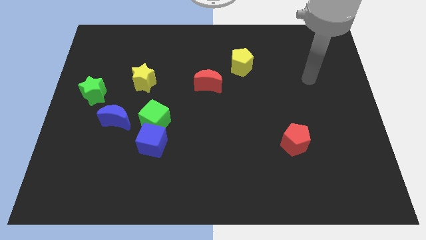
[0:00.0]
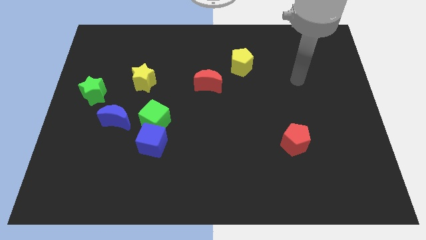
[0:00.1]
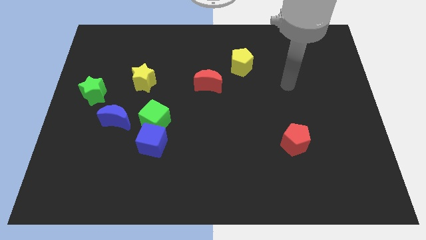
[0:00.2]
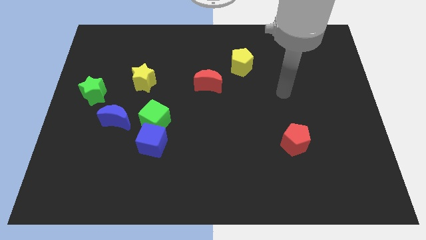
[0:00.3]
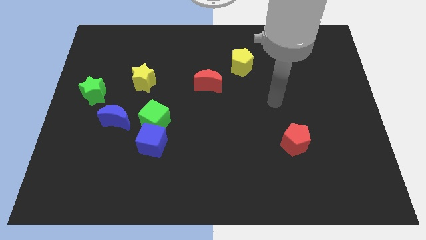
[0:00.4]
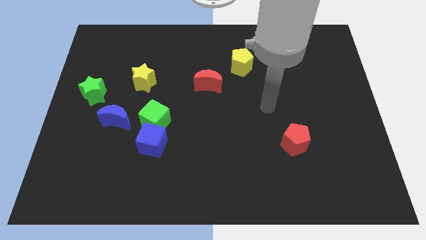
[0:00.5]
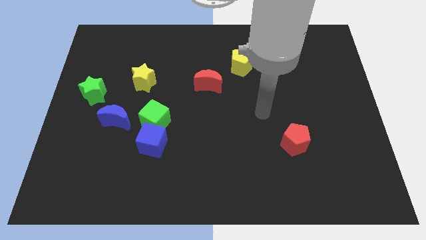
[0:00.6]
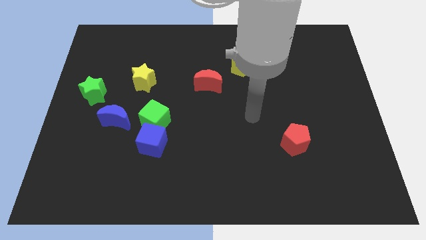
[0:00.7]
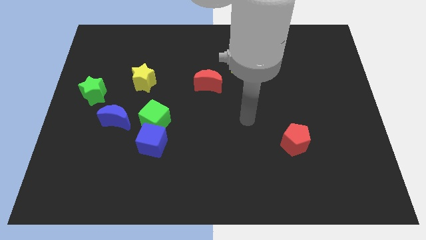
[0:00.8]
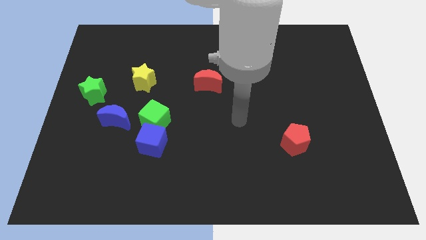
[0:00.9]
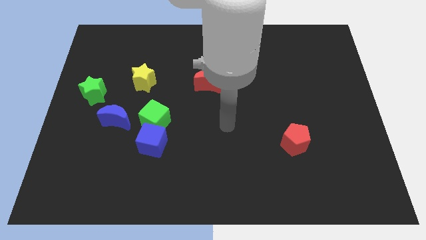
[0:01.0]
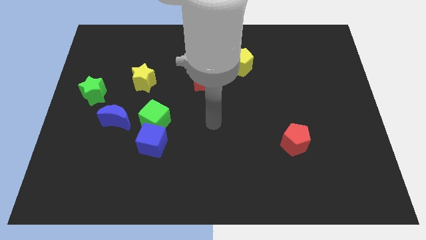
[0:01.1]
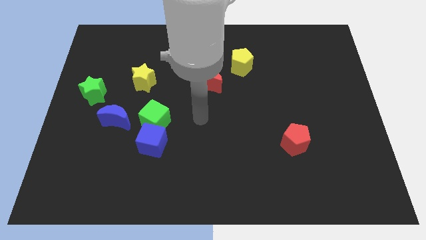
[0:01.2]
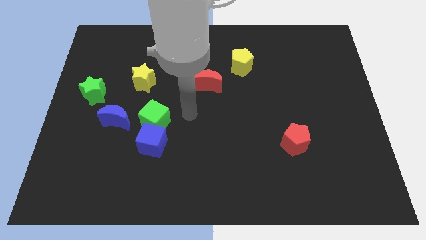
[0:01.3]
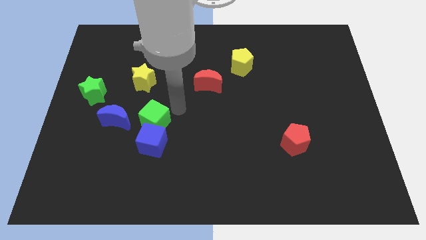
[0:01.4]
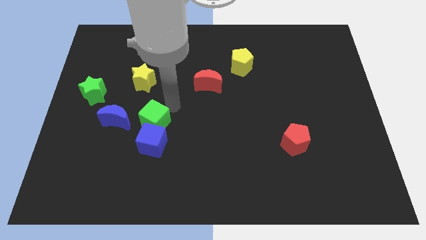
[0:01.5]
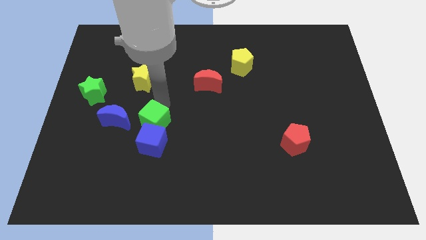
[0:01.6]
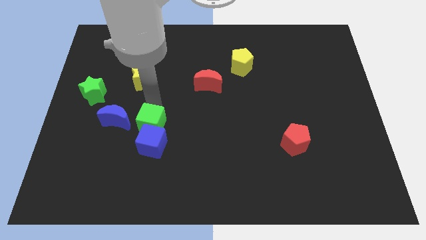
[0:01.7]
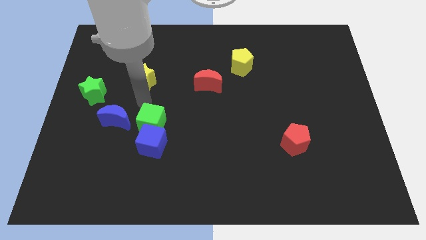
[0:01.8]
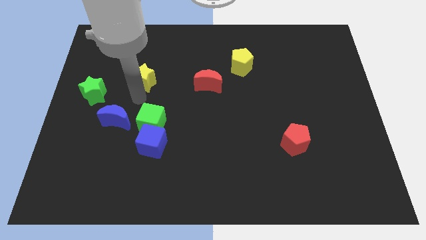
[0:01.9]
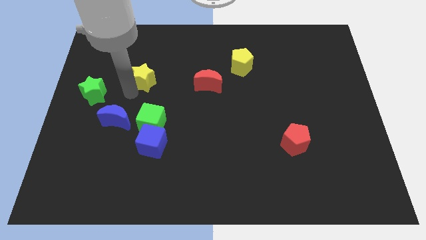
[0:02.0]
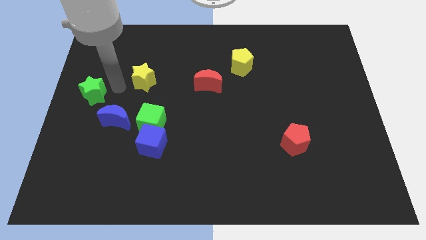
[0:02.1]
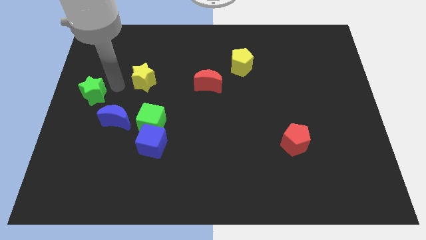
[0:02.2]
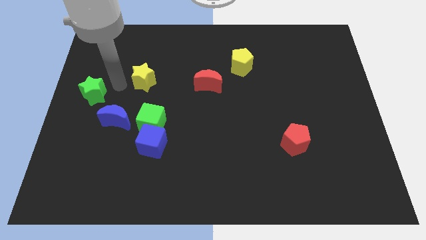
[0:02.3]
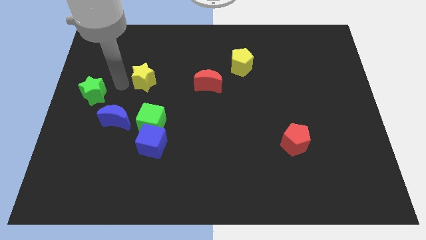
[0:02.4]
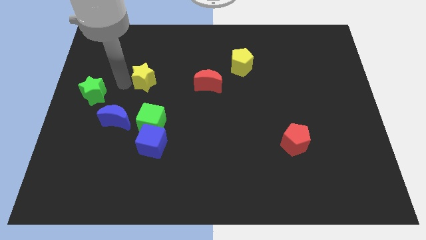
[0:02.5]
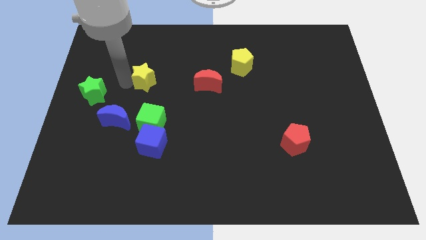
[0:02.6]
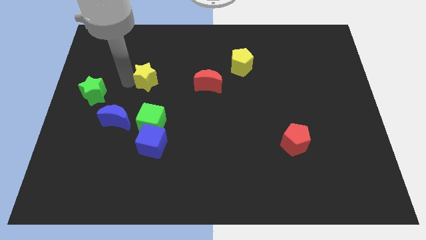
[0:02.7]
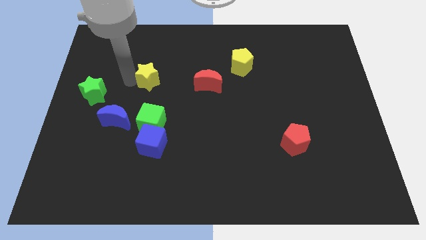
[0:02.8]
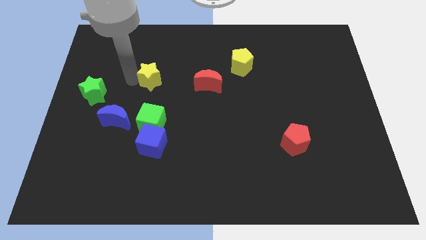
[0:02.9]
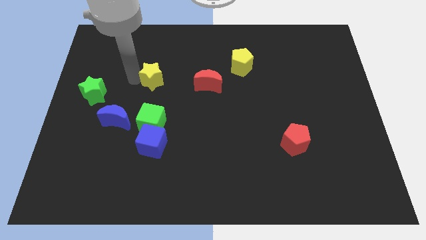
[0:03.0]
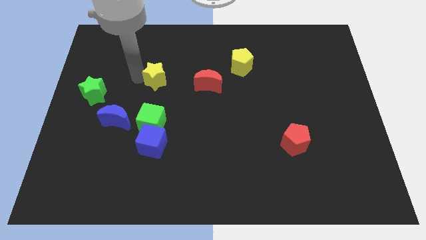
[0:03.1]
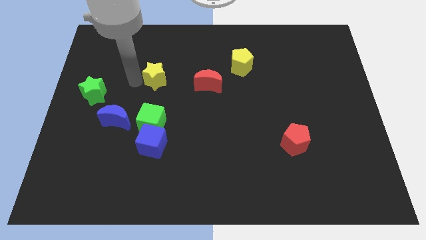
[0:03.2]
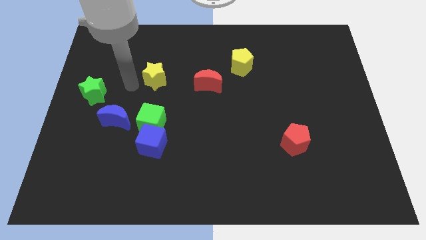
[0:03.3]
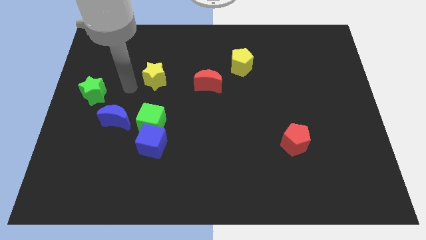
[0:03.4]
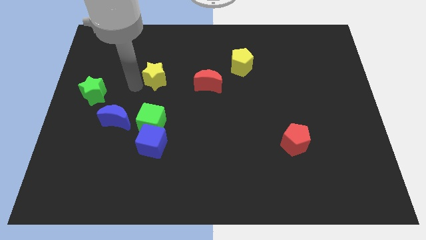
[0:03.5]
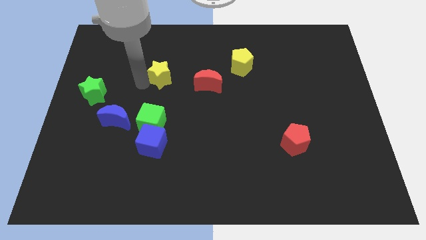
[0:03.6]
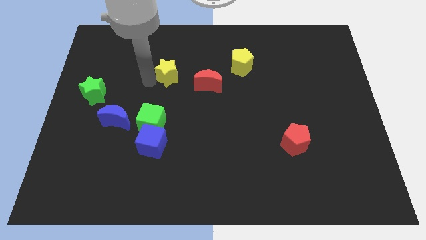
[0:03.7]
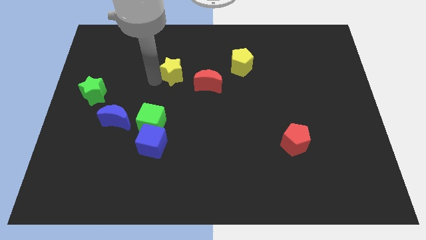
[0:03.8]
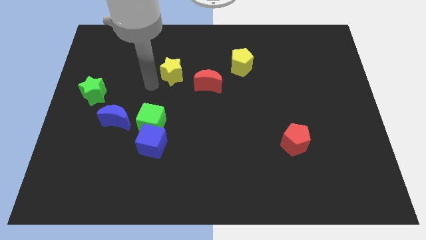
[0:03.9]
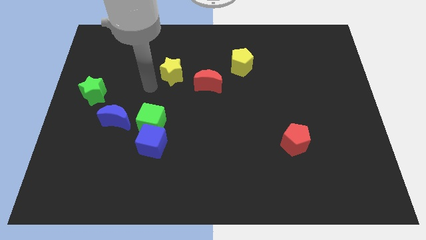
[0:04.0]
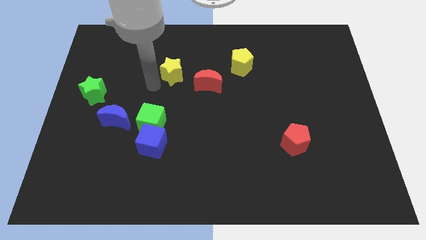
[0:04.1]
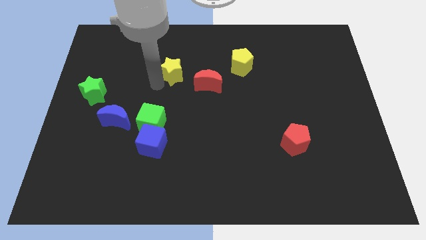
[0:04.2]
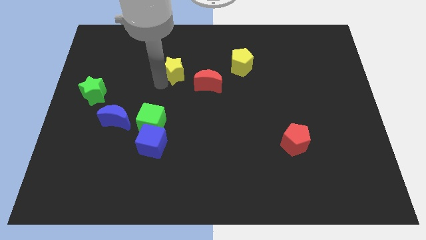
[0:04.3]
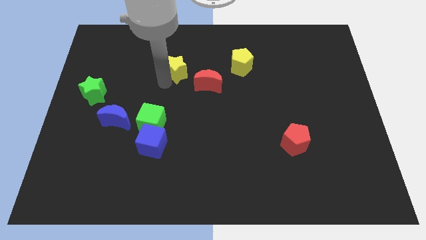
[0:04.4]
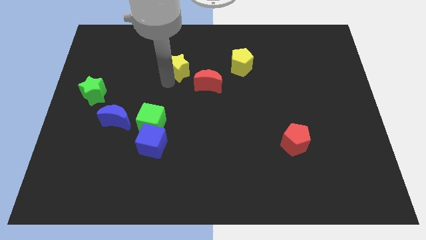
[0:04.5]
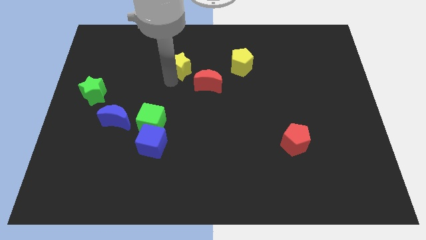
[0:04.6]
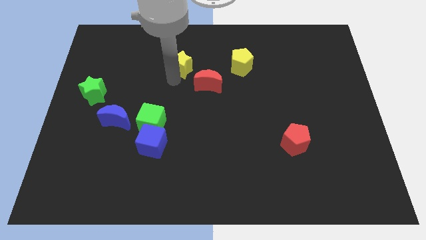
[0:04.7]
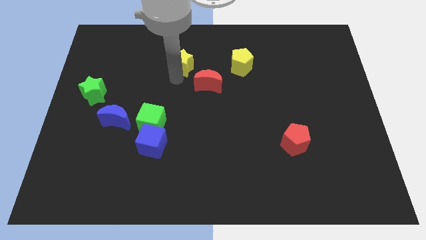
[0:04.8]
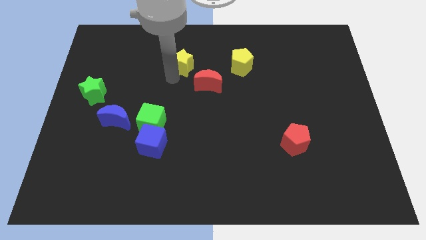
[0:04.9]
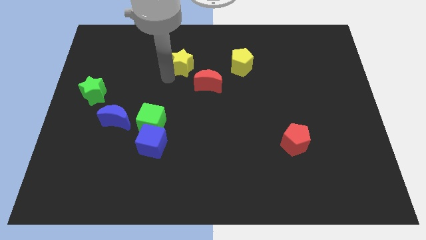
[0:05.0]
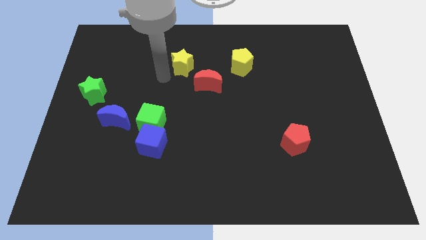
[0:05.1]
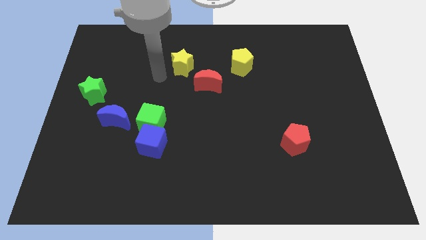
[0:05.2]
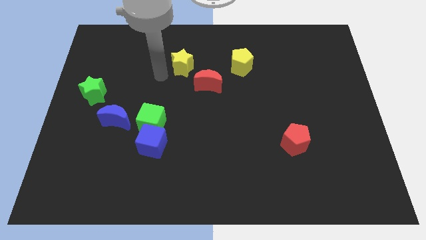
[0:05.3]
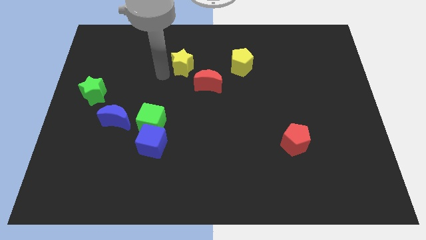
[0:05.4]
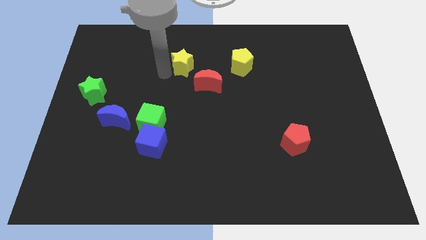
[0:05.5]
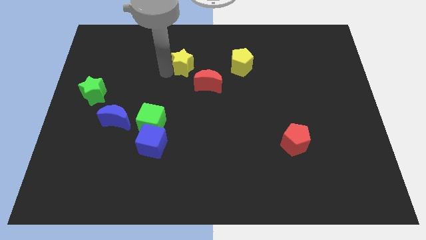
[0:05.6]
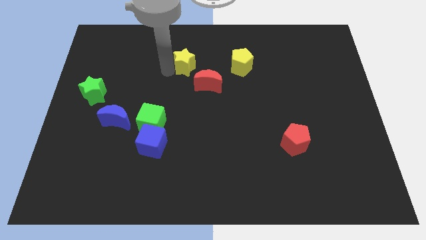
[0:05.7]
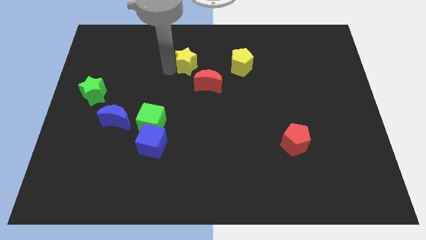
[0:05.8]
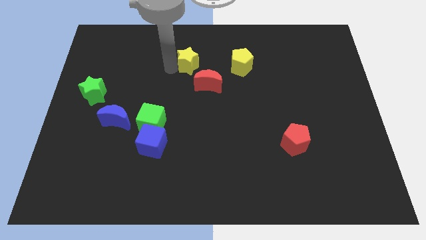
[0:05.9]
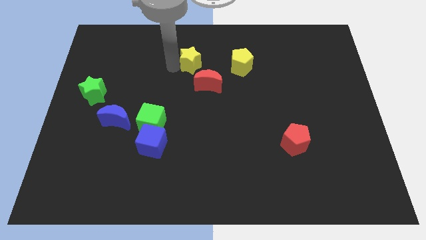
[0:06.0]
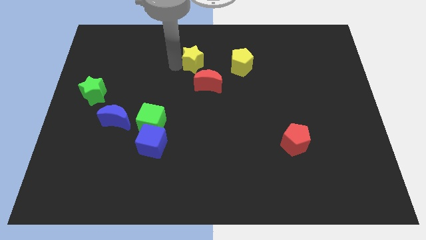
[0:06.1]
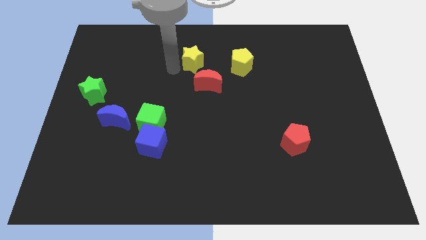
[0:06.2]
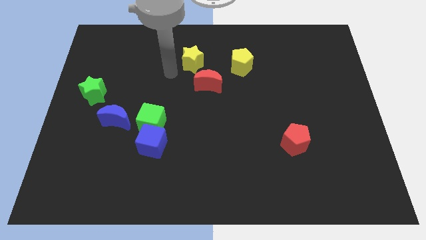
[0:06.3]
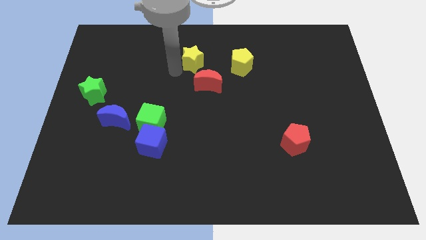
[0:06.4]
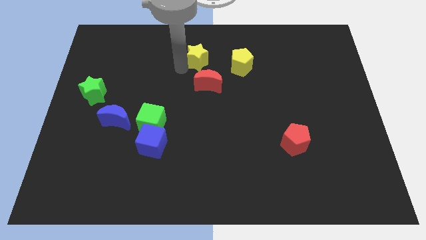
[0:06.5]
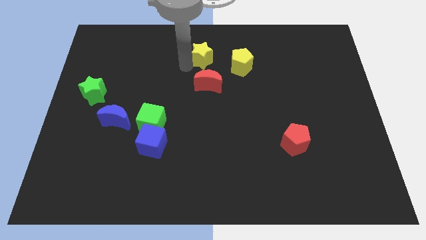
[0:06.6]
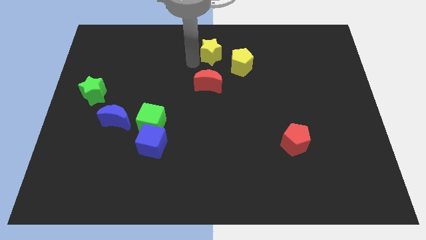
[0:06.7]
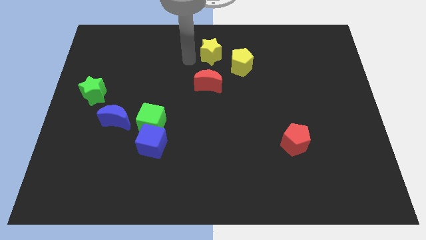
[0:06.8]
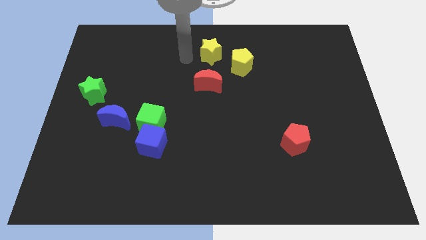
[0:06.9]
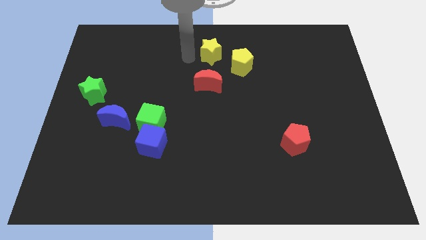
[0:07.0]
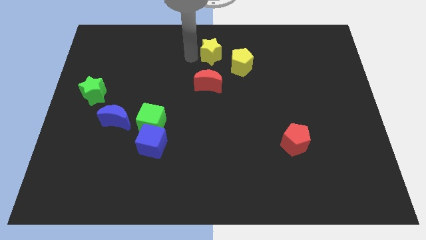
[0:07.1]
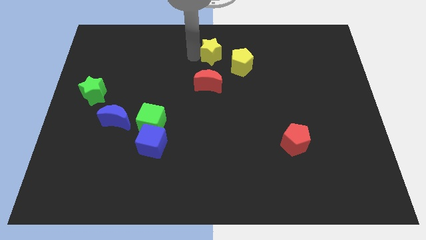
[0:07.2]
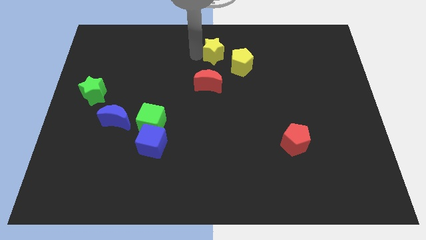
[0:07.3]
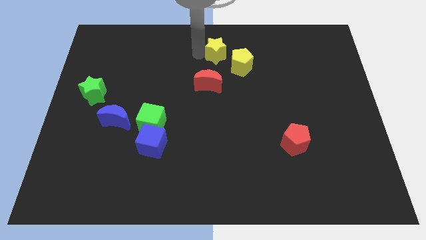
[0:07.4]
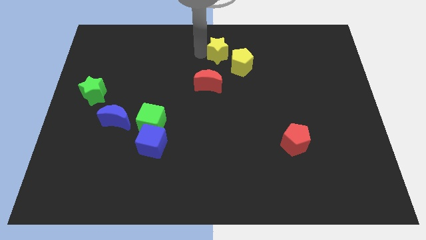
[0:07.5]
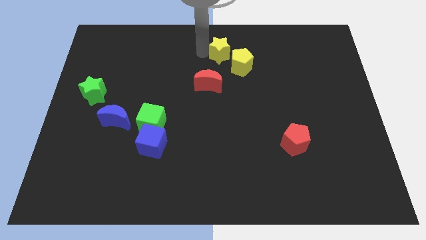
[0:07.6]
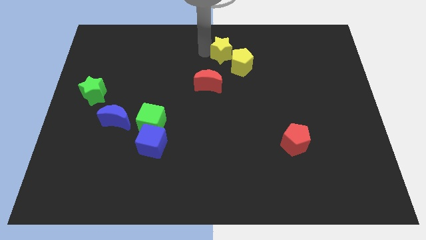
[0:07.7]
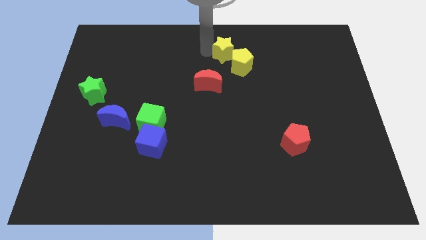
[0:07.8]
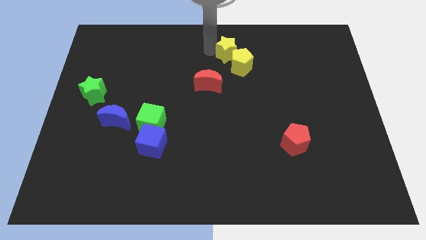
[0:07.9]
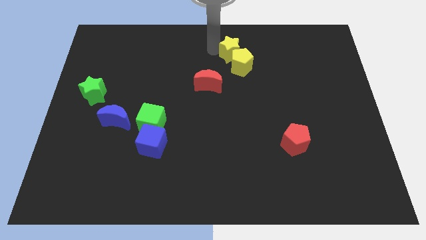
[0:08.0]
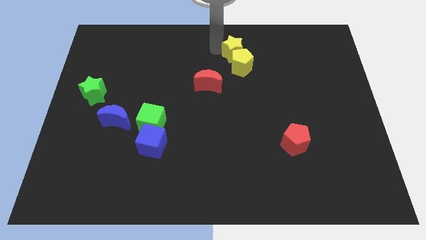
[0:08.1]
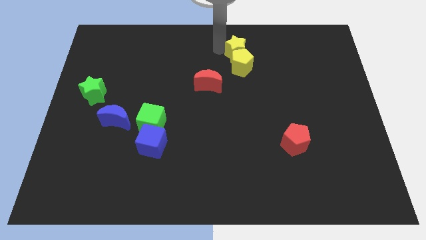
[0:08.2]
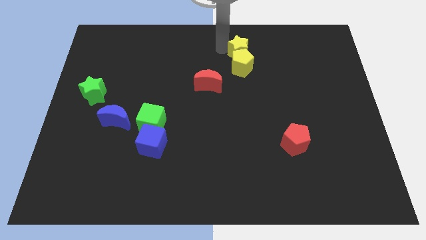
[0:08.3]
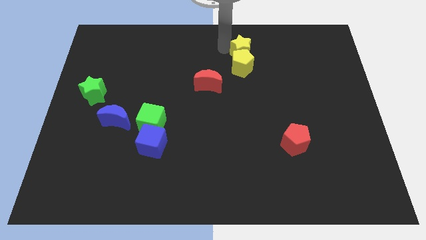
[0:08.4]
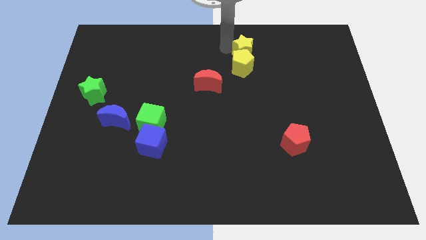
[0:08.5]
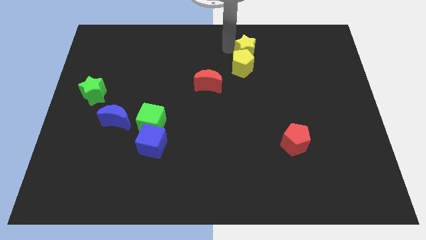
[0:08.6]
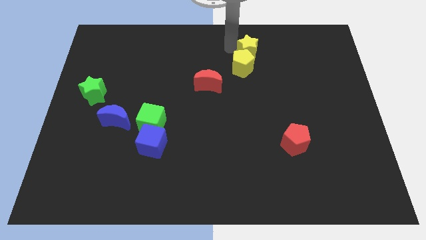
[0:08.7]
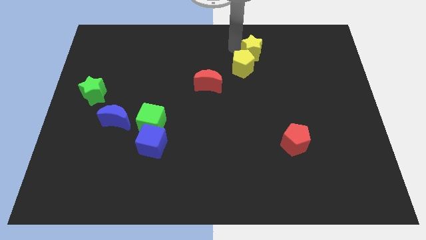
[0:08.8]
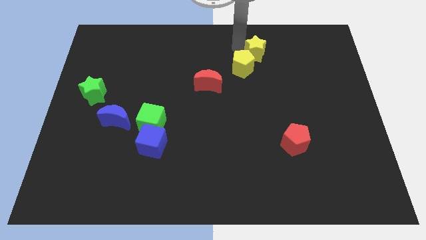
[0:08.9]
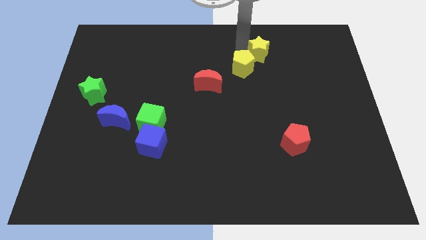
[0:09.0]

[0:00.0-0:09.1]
slide the yellow star to the right of the yellow pentagon
